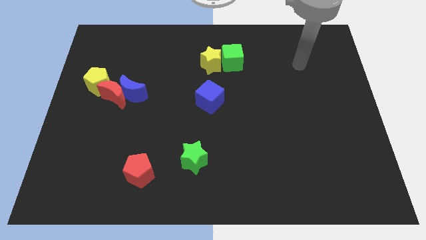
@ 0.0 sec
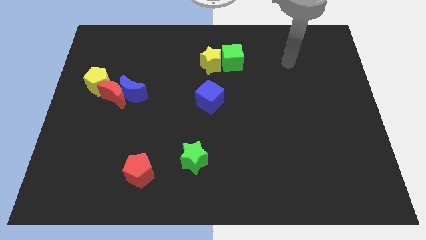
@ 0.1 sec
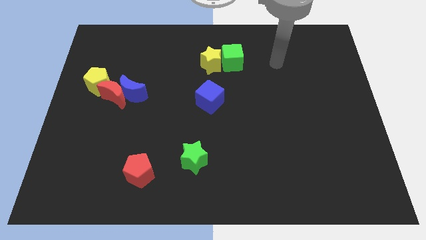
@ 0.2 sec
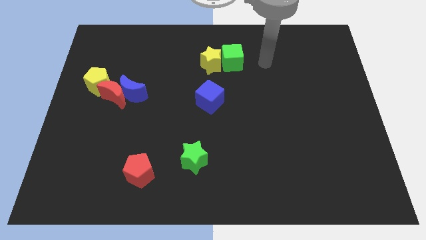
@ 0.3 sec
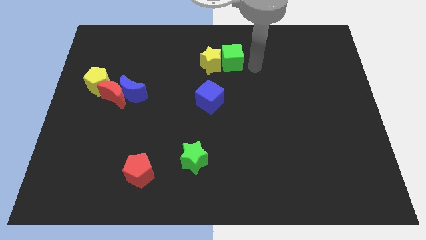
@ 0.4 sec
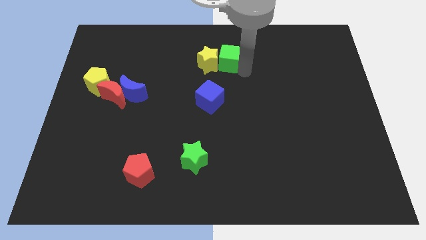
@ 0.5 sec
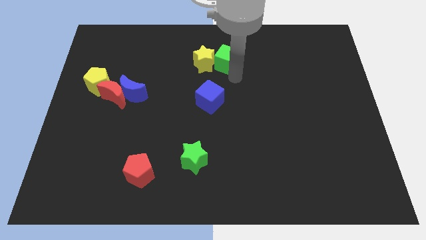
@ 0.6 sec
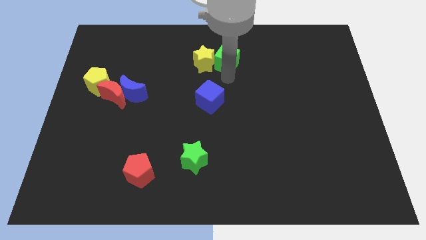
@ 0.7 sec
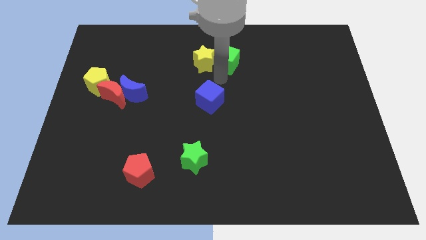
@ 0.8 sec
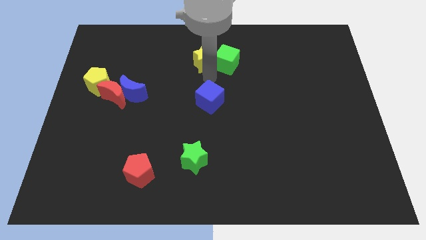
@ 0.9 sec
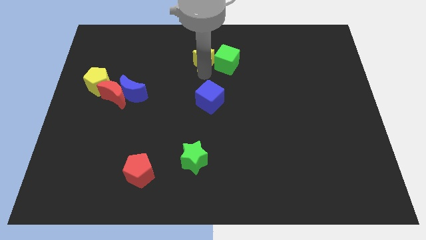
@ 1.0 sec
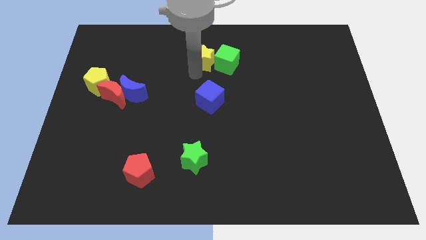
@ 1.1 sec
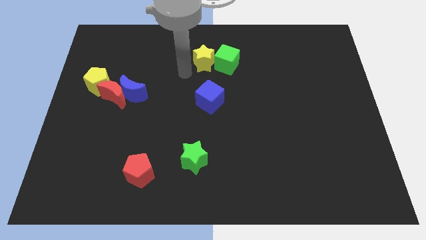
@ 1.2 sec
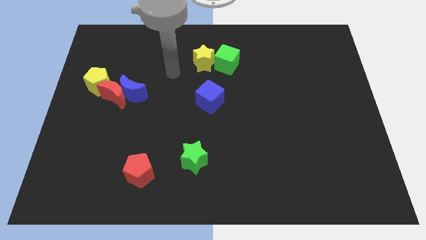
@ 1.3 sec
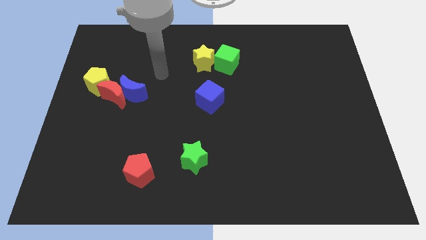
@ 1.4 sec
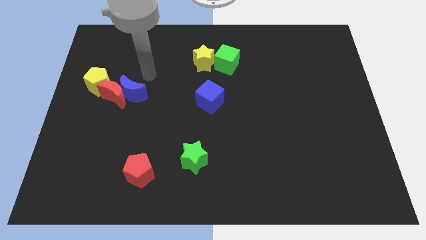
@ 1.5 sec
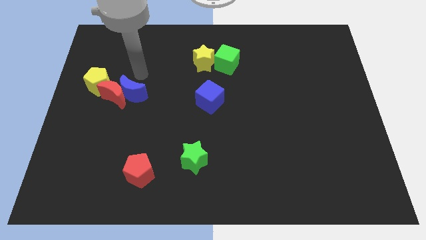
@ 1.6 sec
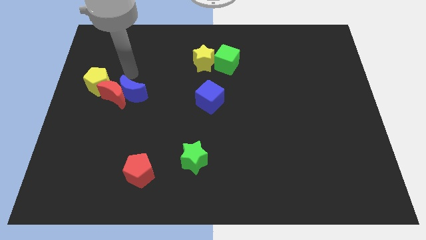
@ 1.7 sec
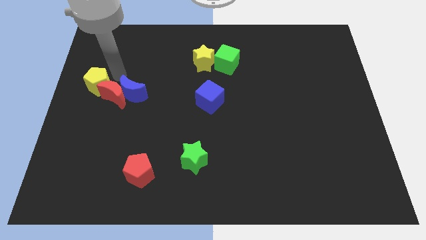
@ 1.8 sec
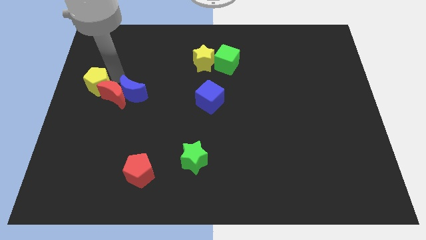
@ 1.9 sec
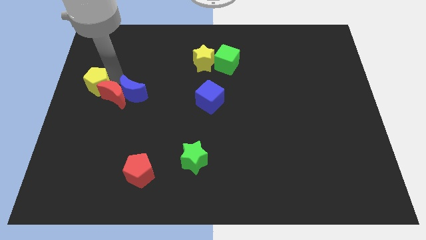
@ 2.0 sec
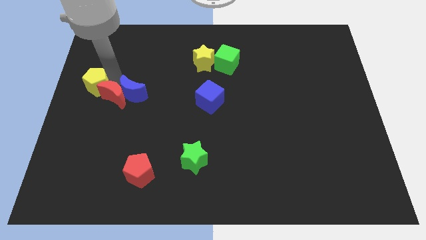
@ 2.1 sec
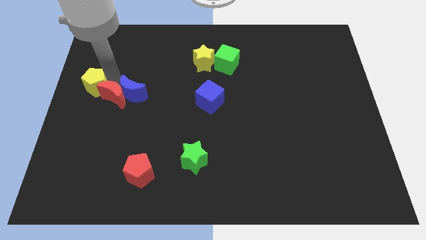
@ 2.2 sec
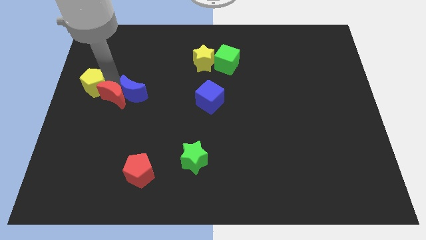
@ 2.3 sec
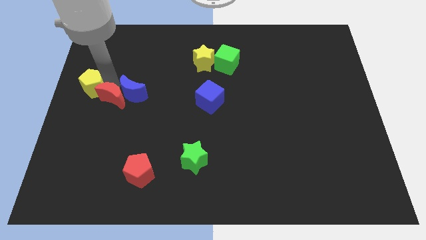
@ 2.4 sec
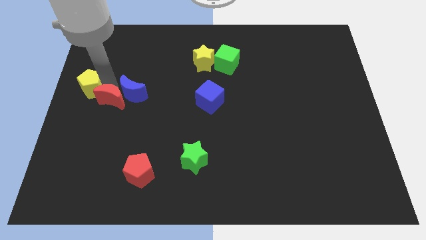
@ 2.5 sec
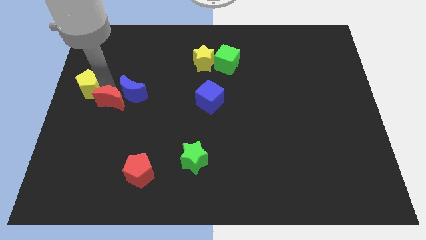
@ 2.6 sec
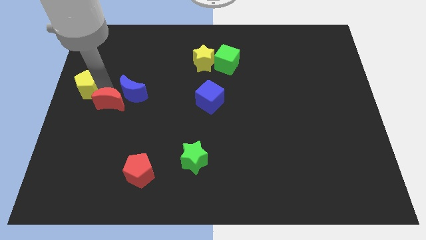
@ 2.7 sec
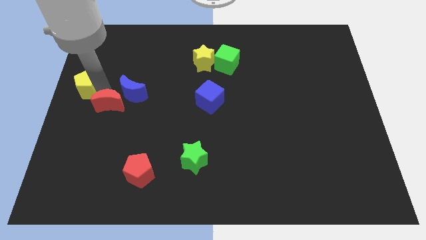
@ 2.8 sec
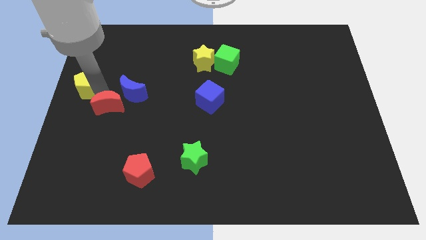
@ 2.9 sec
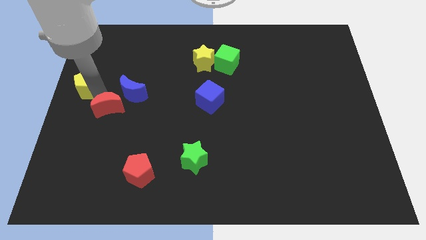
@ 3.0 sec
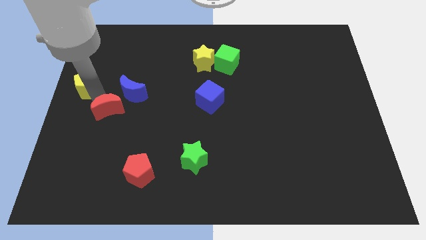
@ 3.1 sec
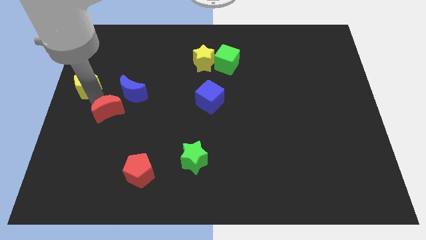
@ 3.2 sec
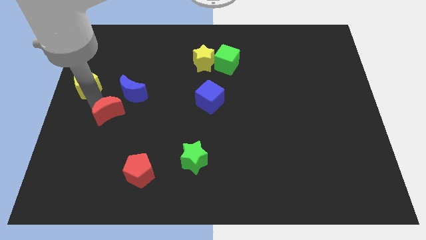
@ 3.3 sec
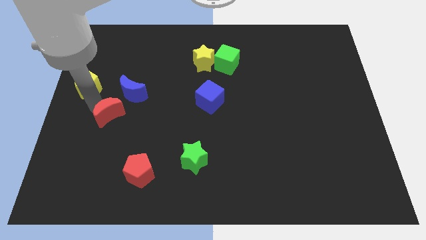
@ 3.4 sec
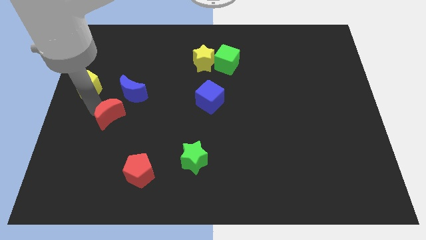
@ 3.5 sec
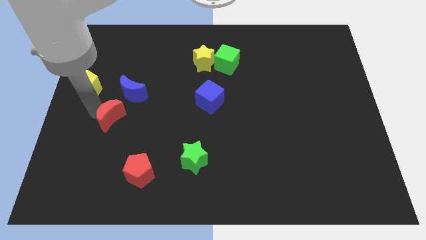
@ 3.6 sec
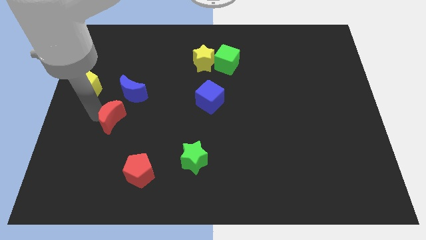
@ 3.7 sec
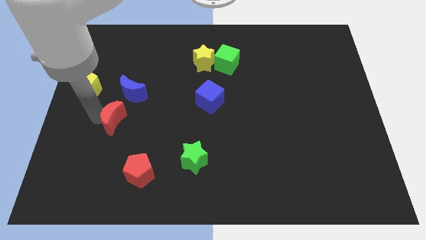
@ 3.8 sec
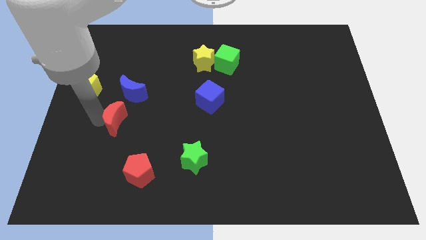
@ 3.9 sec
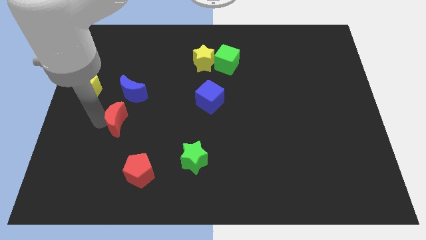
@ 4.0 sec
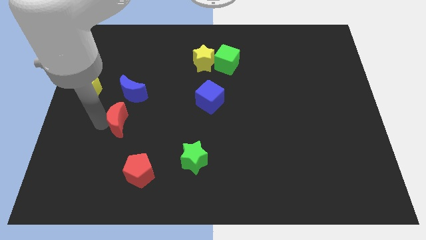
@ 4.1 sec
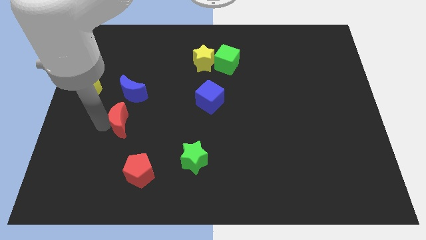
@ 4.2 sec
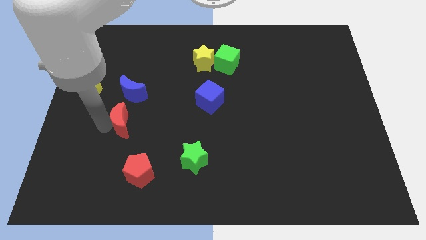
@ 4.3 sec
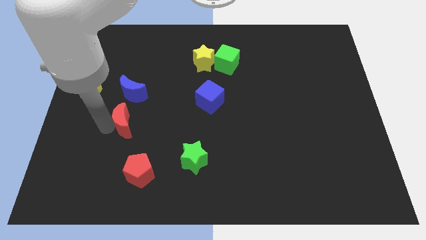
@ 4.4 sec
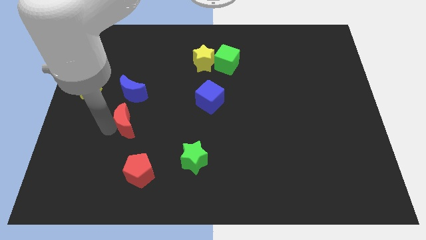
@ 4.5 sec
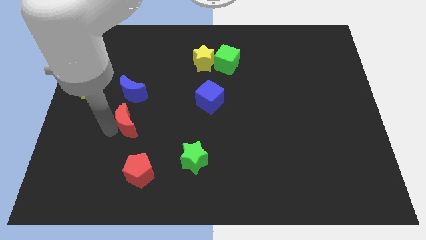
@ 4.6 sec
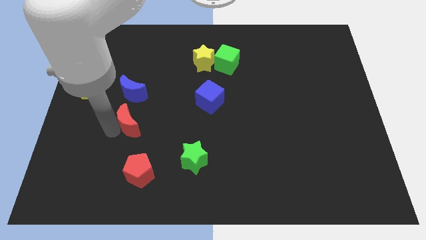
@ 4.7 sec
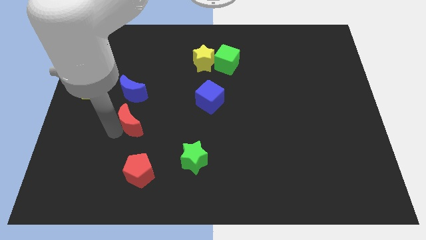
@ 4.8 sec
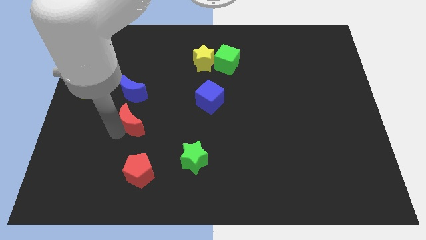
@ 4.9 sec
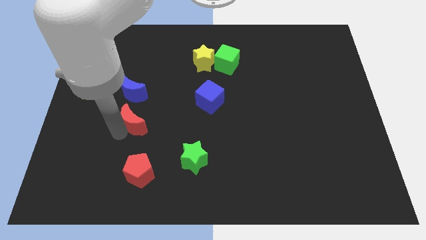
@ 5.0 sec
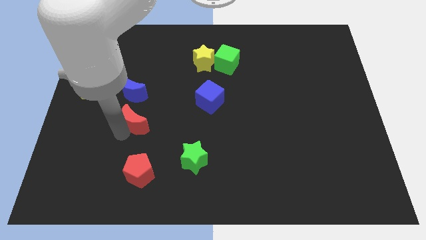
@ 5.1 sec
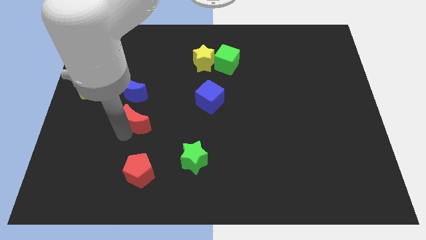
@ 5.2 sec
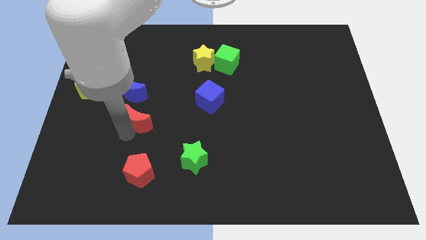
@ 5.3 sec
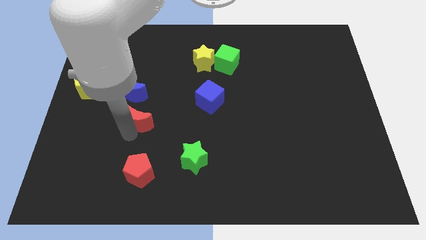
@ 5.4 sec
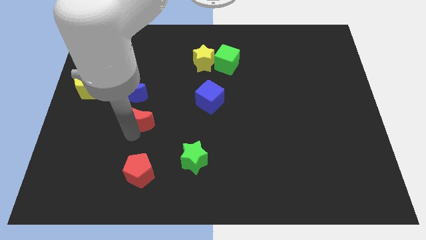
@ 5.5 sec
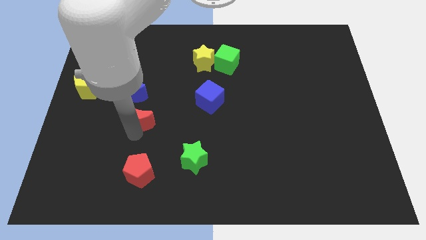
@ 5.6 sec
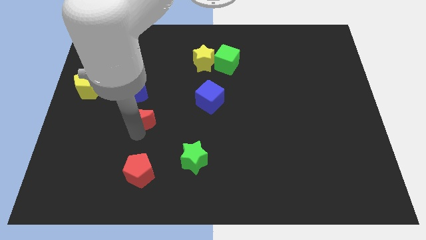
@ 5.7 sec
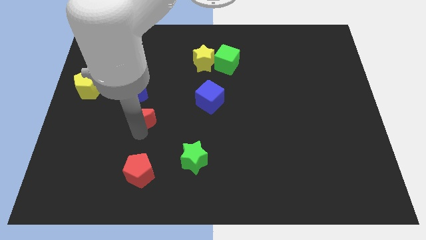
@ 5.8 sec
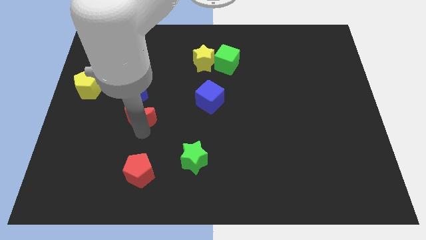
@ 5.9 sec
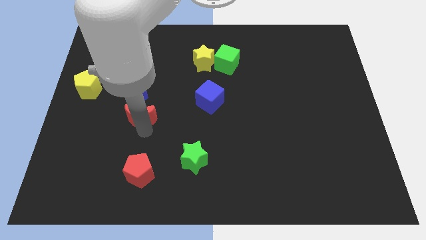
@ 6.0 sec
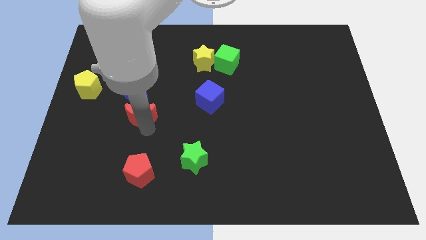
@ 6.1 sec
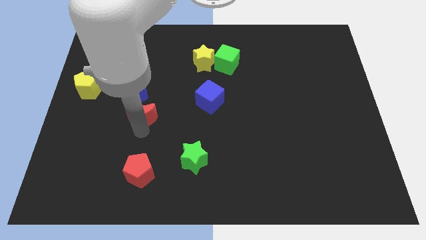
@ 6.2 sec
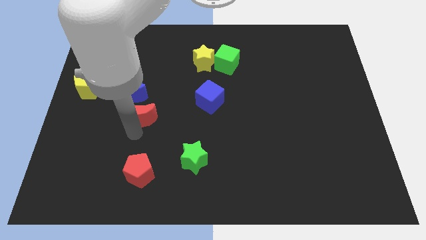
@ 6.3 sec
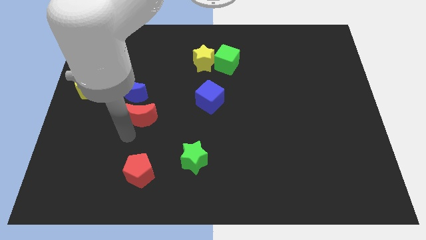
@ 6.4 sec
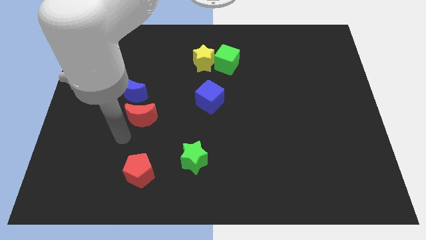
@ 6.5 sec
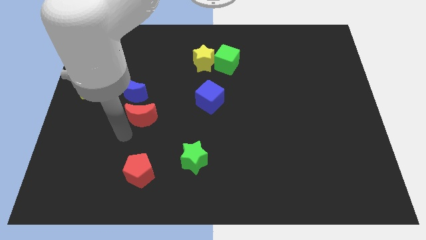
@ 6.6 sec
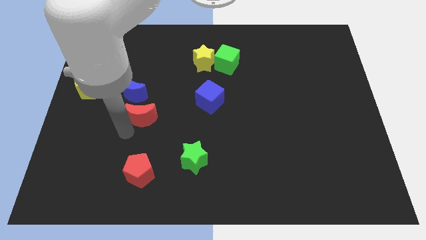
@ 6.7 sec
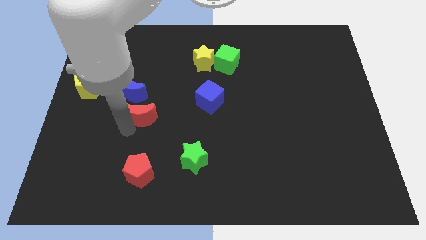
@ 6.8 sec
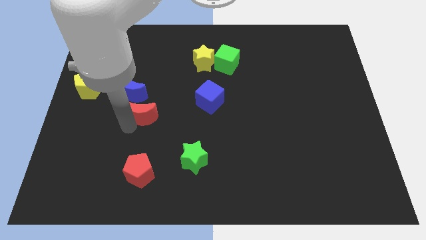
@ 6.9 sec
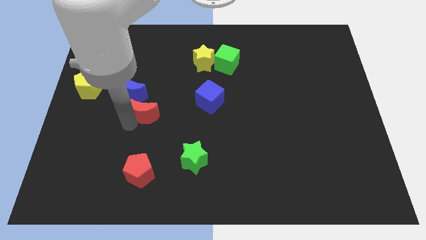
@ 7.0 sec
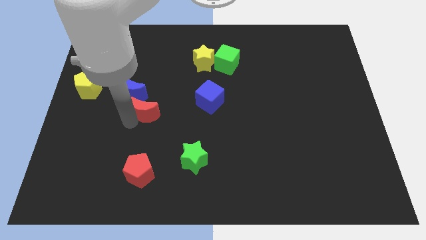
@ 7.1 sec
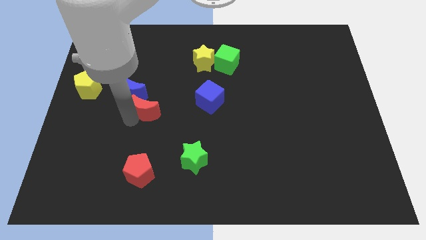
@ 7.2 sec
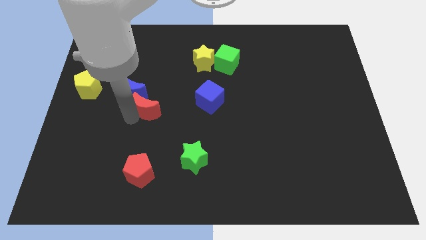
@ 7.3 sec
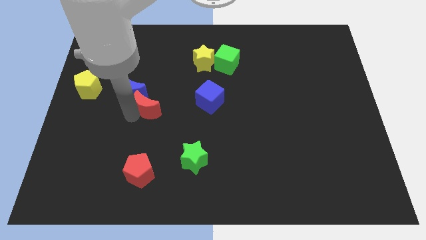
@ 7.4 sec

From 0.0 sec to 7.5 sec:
slide the red moon to the right of the blue moon

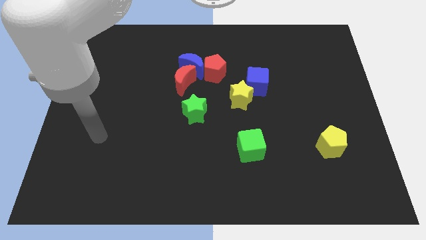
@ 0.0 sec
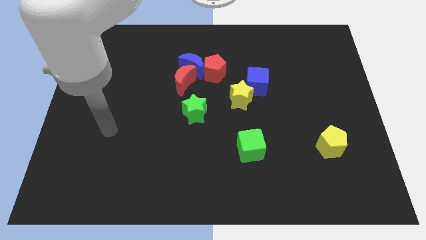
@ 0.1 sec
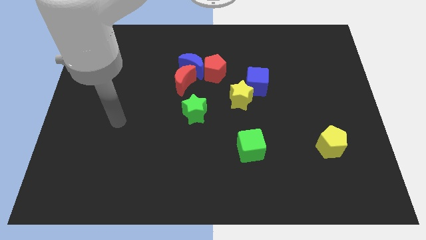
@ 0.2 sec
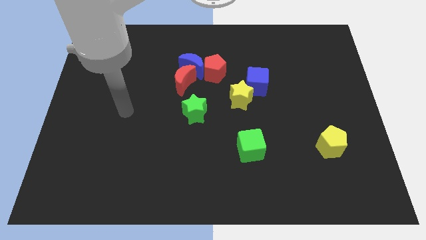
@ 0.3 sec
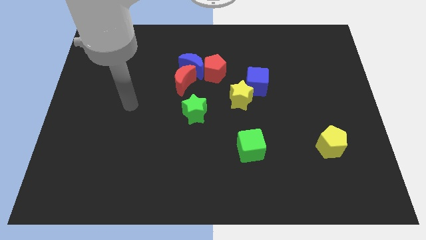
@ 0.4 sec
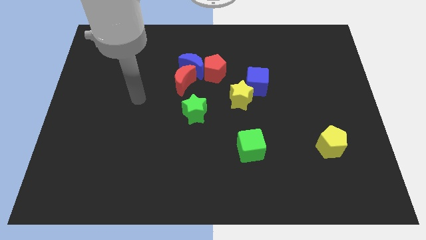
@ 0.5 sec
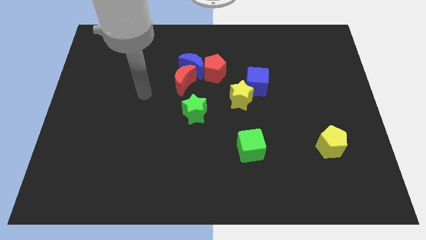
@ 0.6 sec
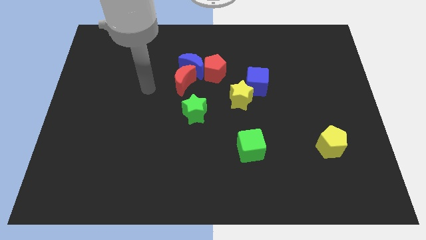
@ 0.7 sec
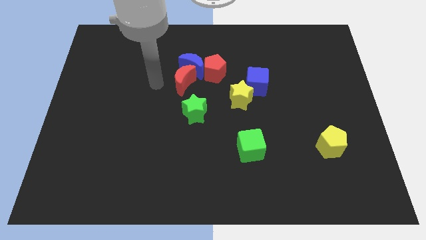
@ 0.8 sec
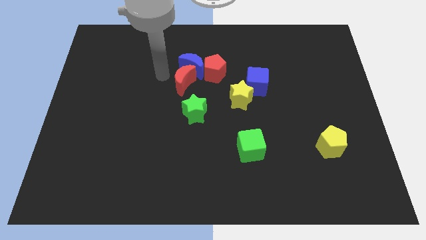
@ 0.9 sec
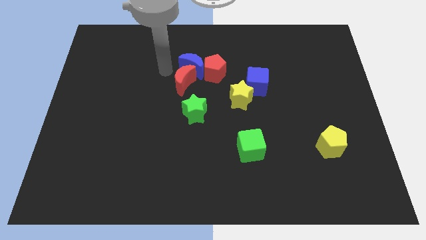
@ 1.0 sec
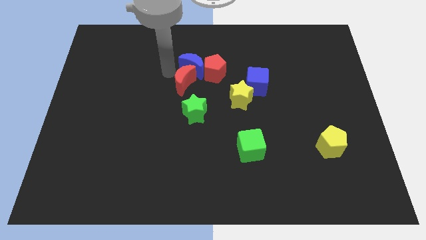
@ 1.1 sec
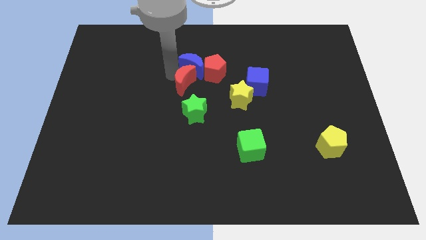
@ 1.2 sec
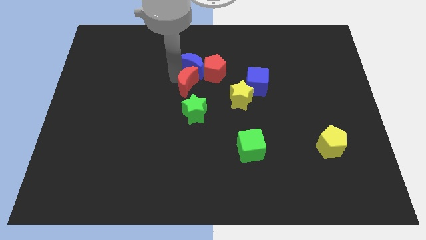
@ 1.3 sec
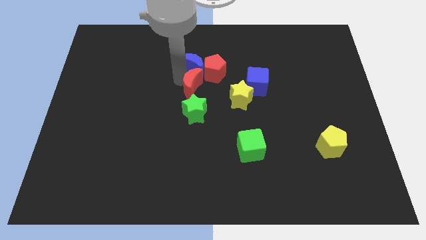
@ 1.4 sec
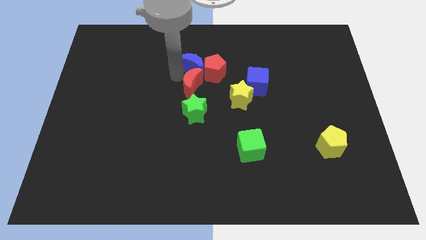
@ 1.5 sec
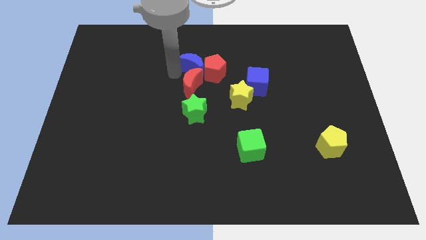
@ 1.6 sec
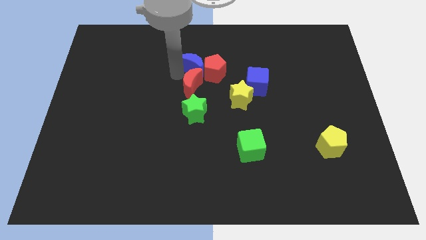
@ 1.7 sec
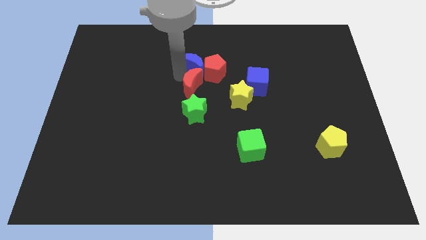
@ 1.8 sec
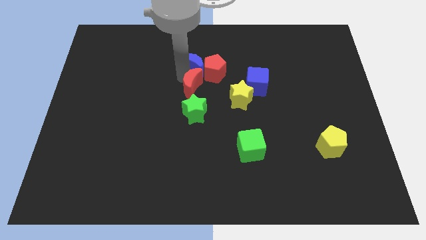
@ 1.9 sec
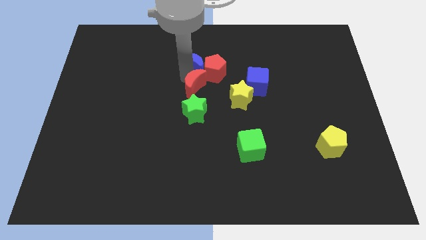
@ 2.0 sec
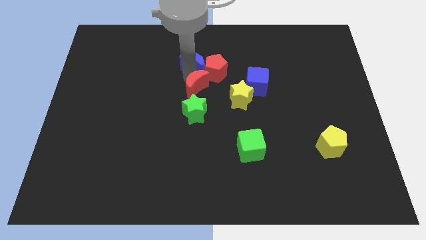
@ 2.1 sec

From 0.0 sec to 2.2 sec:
put the red moon to the bottom of the red pentagon
